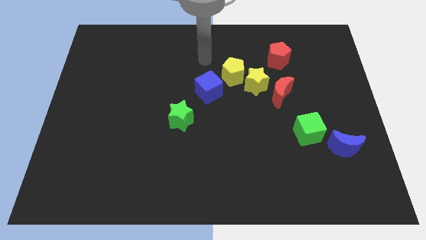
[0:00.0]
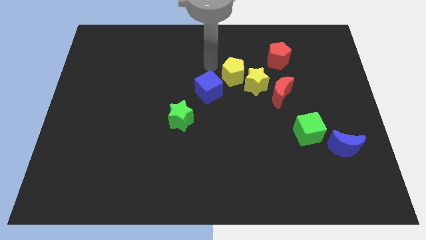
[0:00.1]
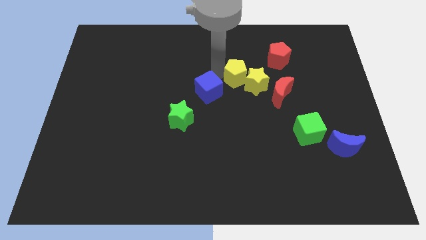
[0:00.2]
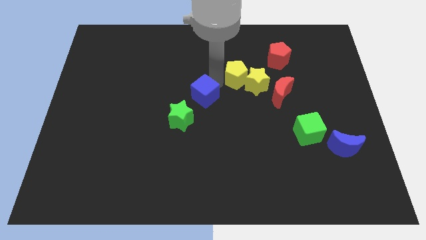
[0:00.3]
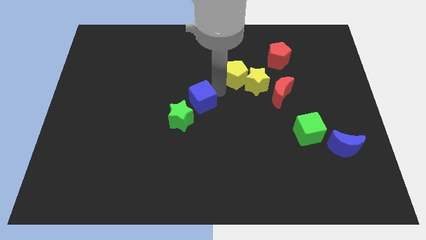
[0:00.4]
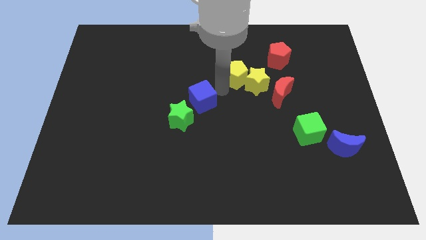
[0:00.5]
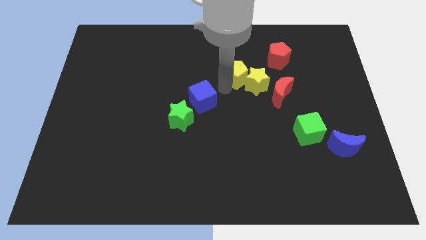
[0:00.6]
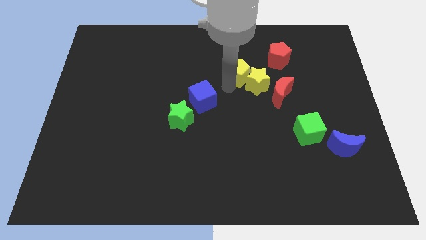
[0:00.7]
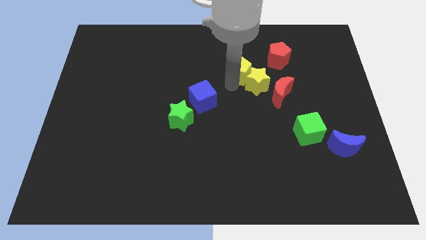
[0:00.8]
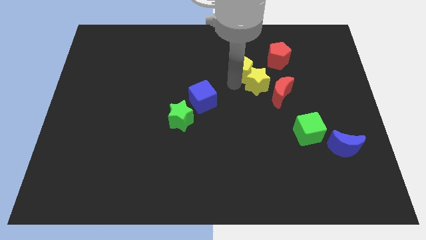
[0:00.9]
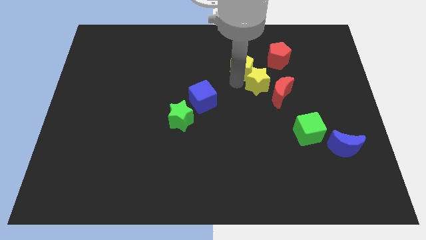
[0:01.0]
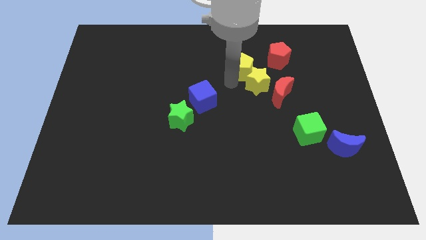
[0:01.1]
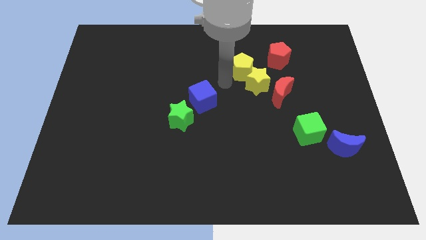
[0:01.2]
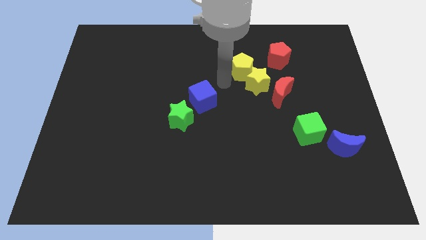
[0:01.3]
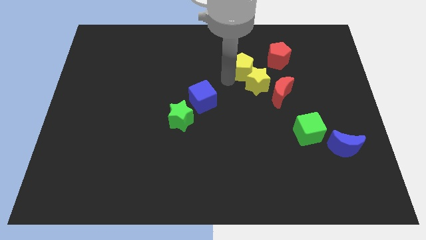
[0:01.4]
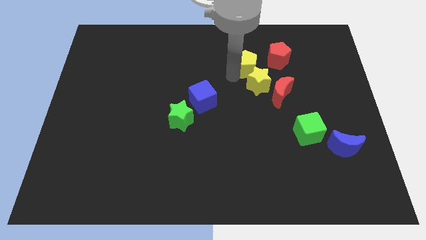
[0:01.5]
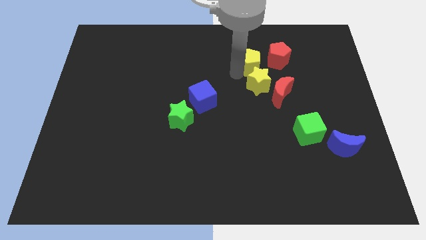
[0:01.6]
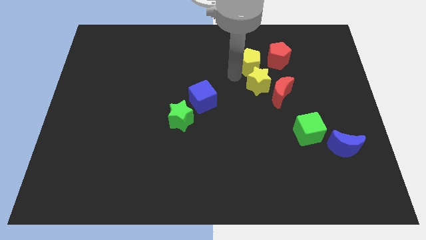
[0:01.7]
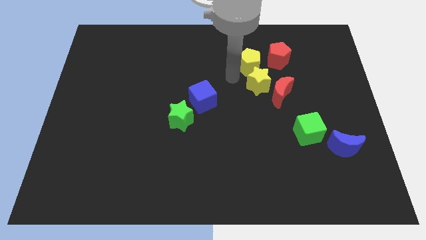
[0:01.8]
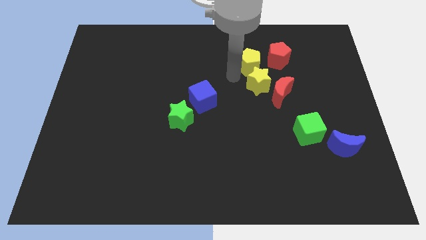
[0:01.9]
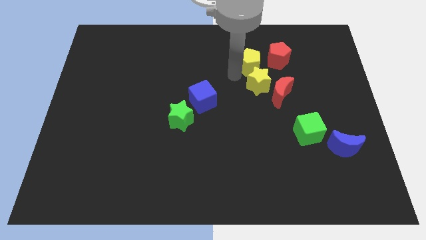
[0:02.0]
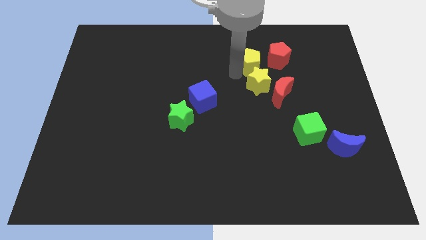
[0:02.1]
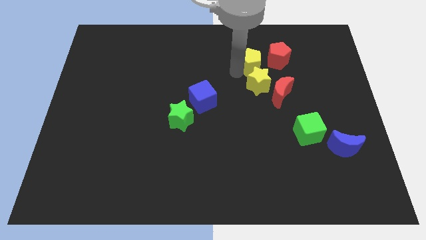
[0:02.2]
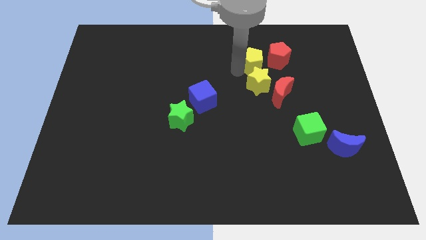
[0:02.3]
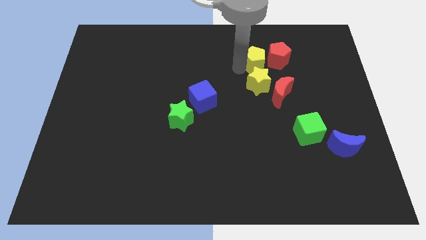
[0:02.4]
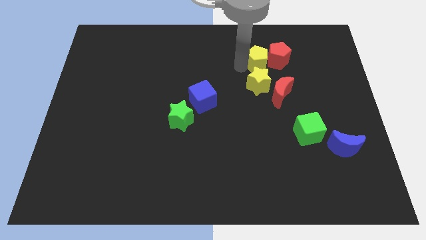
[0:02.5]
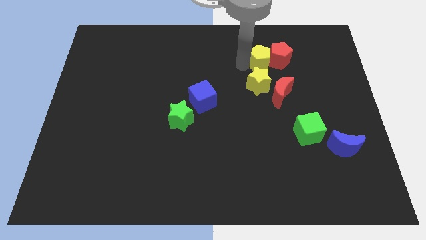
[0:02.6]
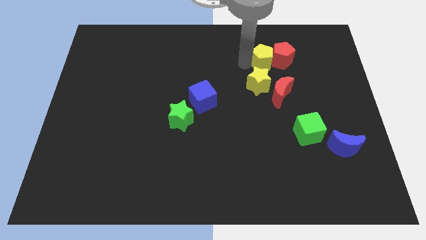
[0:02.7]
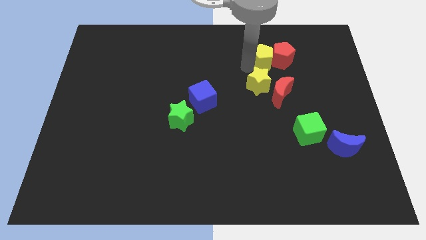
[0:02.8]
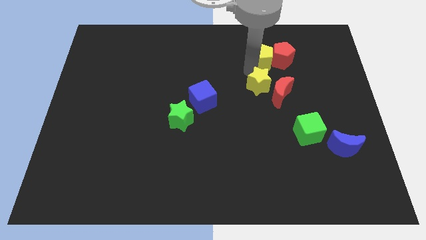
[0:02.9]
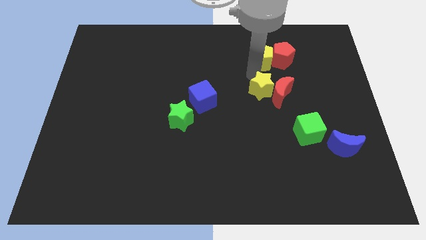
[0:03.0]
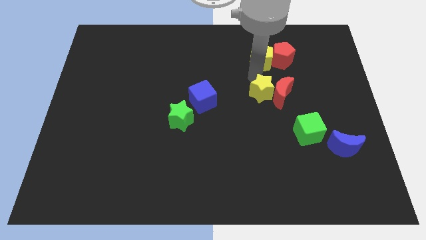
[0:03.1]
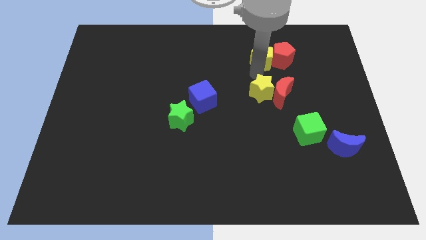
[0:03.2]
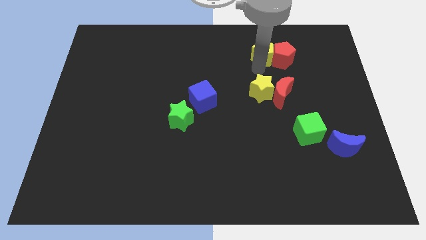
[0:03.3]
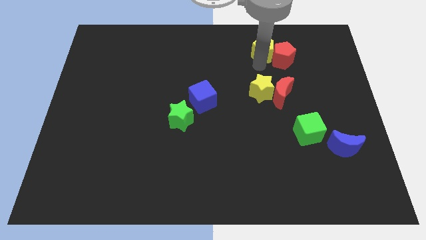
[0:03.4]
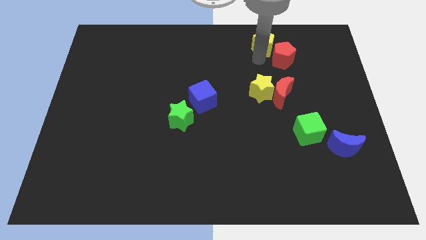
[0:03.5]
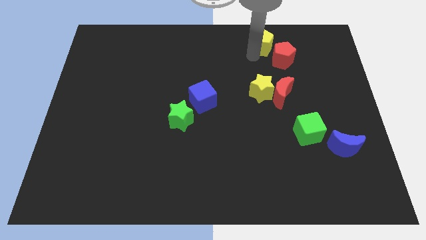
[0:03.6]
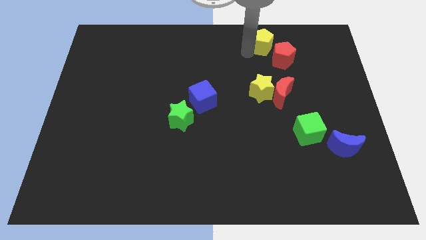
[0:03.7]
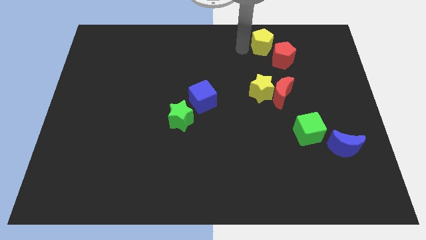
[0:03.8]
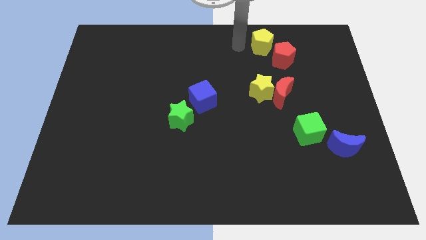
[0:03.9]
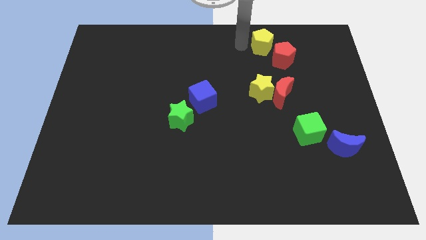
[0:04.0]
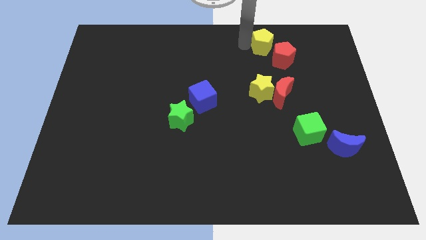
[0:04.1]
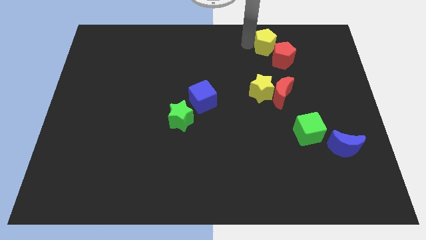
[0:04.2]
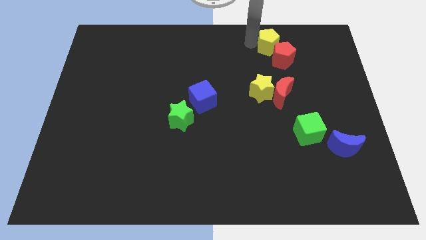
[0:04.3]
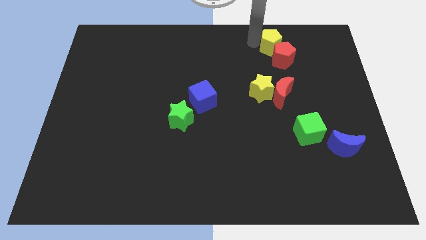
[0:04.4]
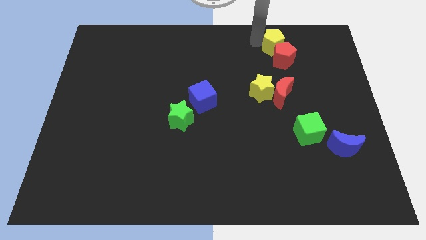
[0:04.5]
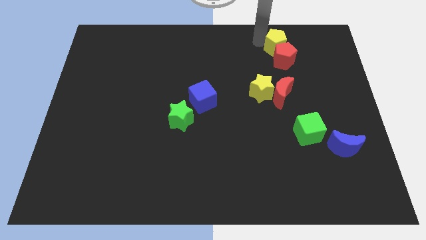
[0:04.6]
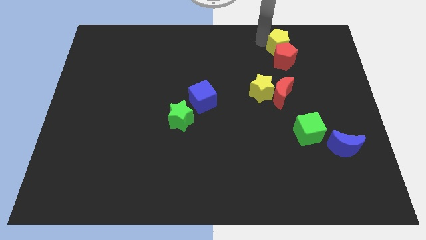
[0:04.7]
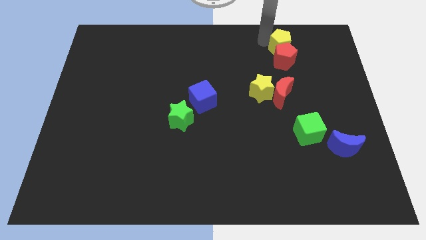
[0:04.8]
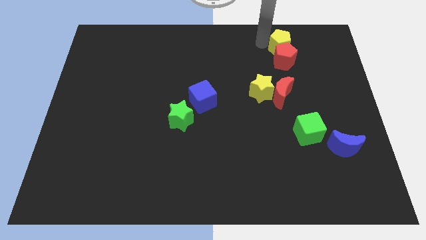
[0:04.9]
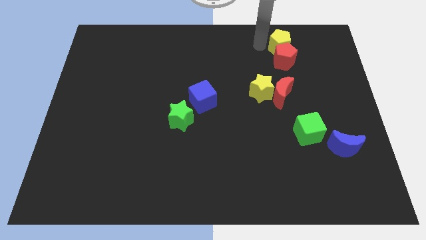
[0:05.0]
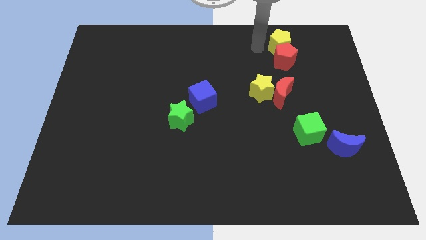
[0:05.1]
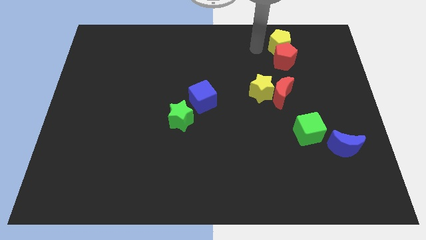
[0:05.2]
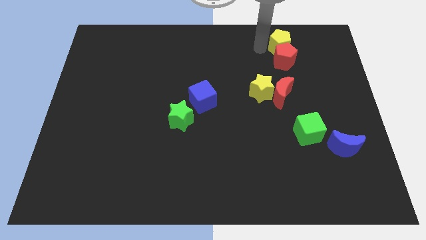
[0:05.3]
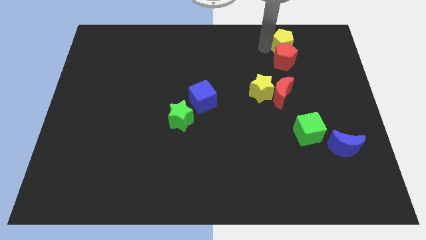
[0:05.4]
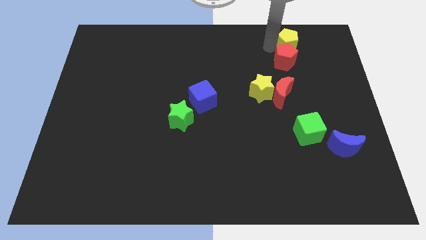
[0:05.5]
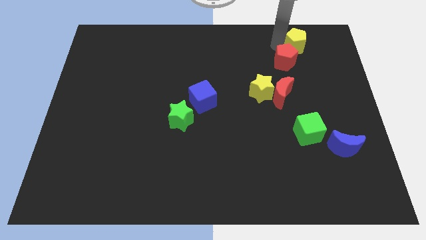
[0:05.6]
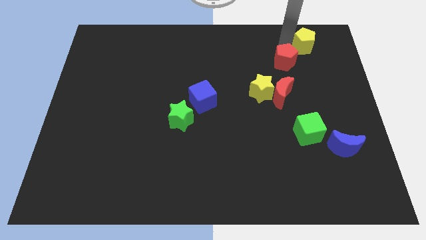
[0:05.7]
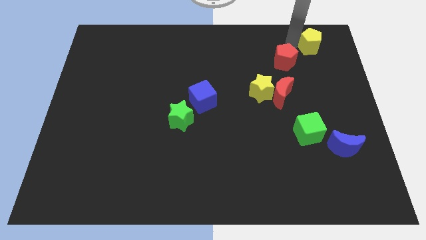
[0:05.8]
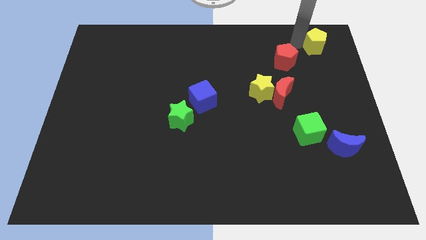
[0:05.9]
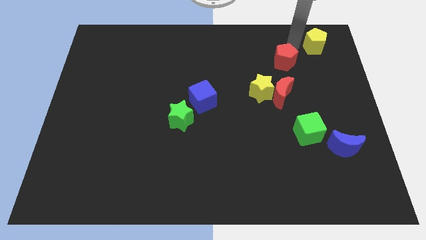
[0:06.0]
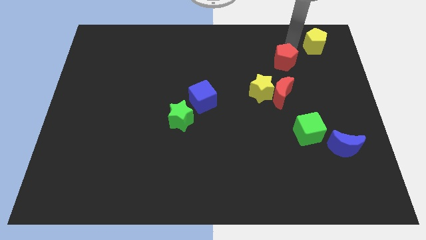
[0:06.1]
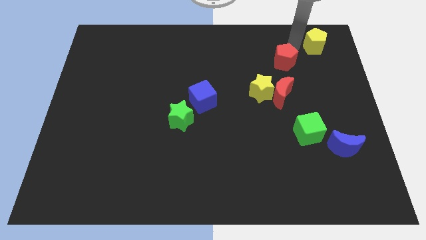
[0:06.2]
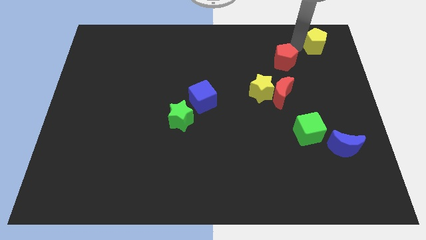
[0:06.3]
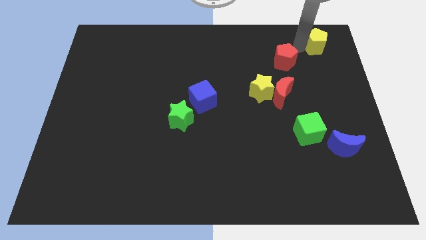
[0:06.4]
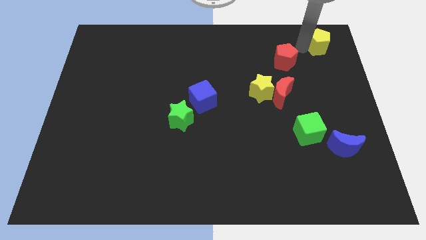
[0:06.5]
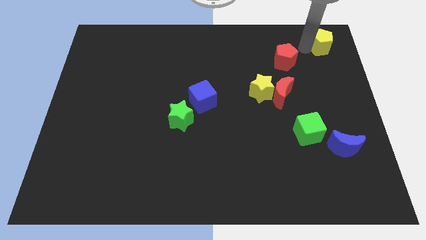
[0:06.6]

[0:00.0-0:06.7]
move the yellow pentagon to the upper right corner

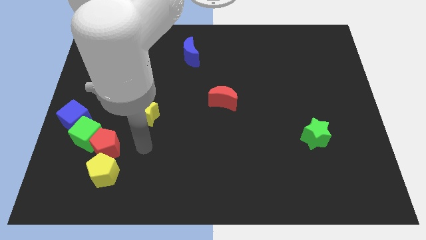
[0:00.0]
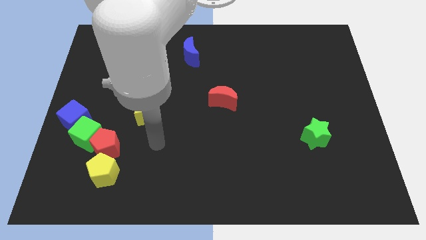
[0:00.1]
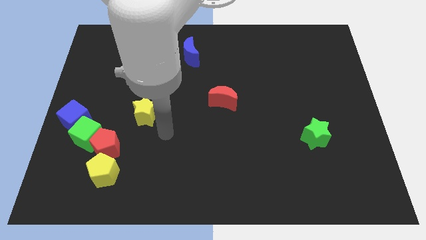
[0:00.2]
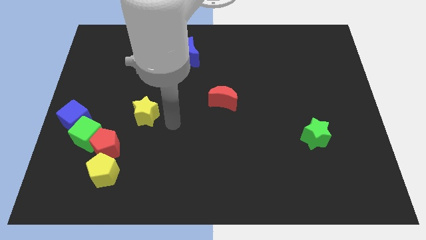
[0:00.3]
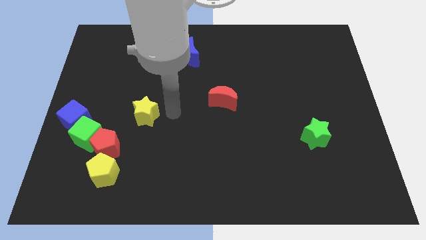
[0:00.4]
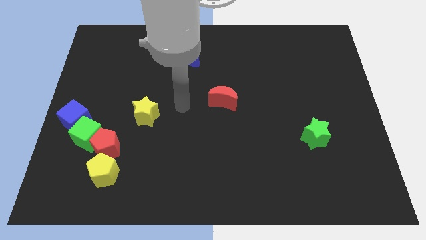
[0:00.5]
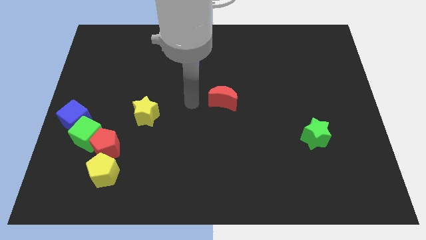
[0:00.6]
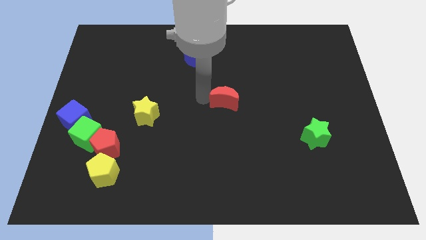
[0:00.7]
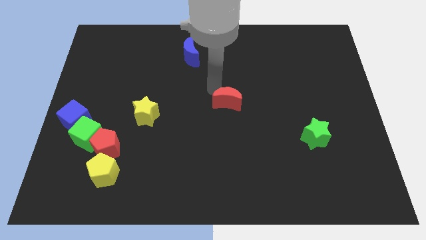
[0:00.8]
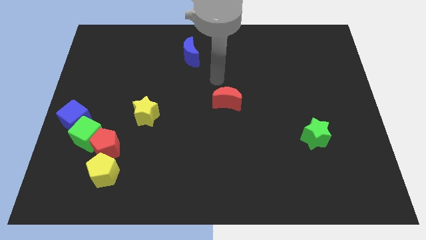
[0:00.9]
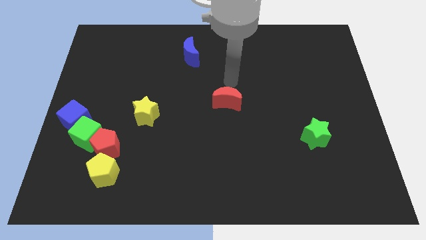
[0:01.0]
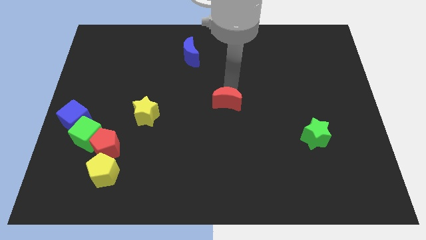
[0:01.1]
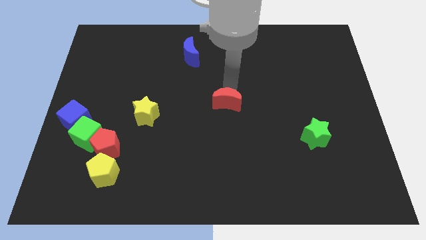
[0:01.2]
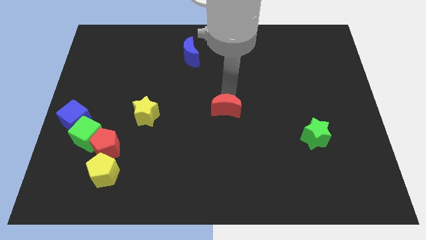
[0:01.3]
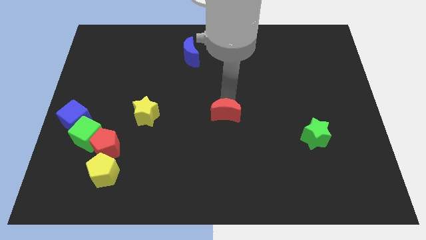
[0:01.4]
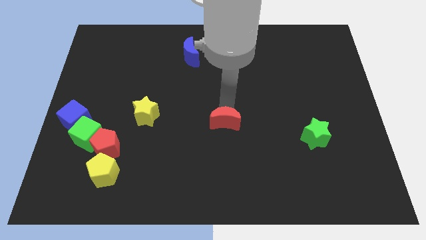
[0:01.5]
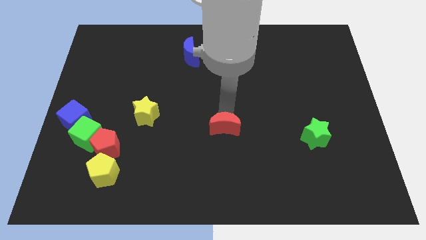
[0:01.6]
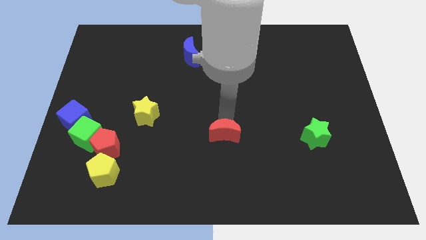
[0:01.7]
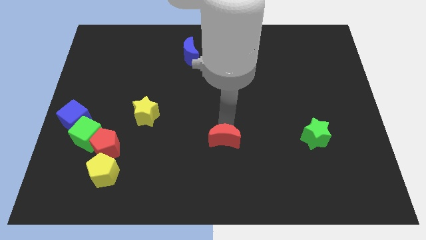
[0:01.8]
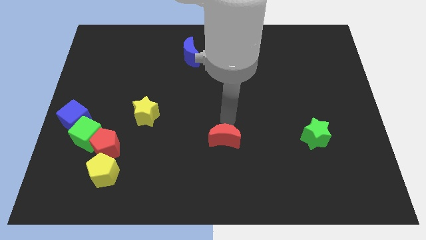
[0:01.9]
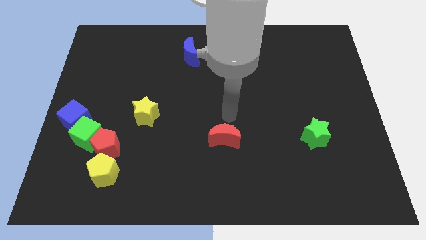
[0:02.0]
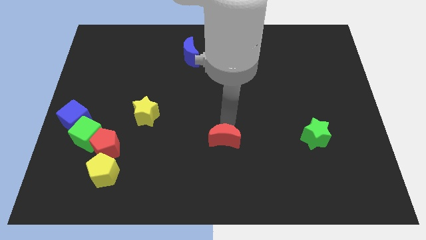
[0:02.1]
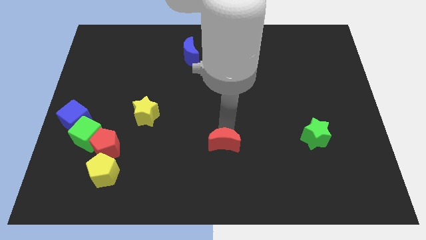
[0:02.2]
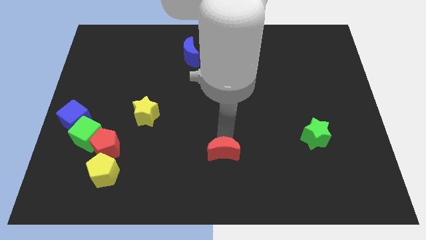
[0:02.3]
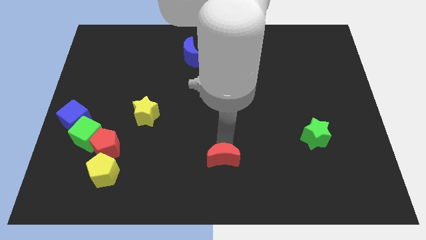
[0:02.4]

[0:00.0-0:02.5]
move the red moon to the bottom side
